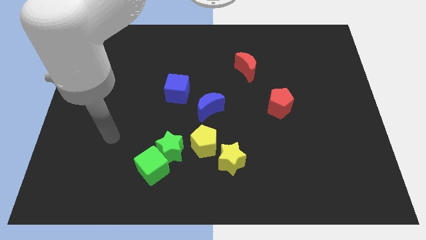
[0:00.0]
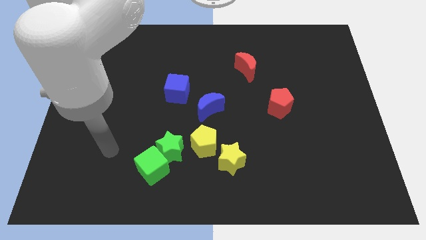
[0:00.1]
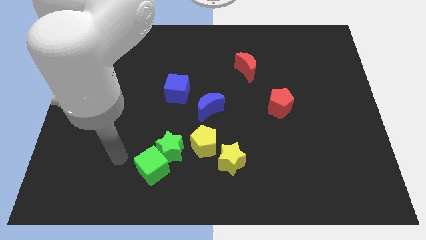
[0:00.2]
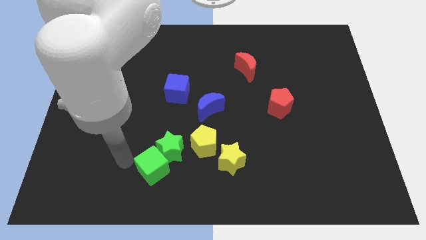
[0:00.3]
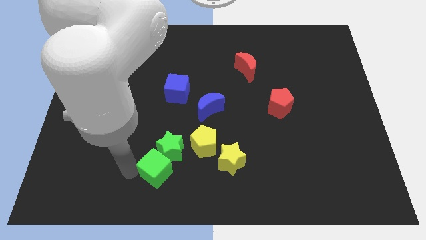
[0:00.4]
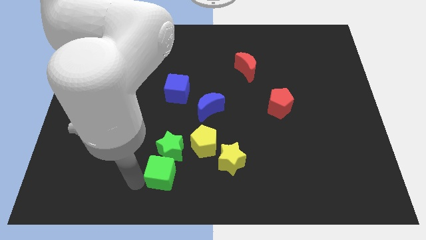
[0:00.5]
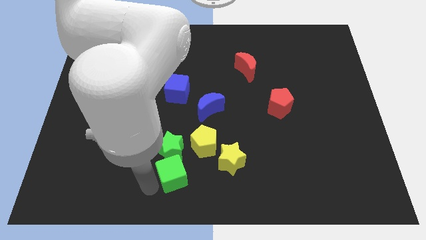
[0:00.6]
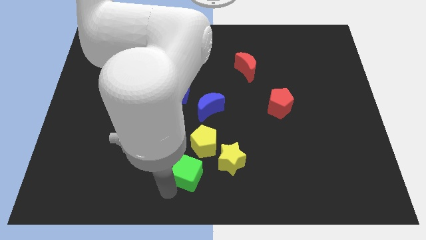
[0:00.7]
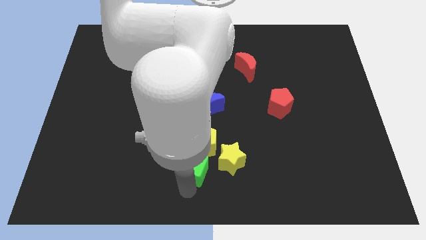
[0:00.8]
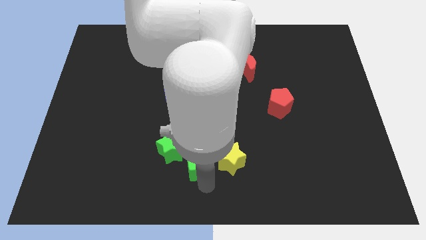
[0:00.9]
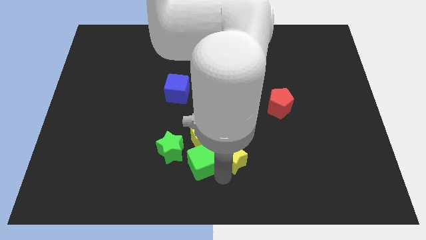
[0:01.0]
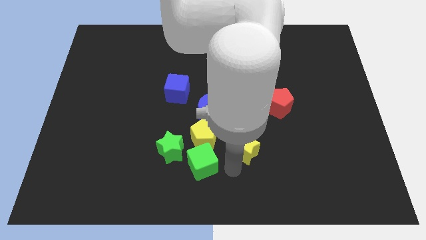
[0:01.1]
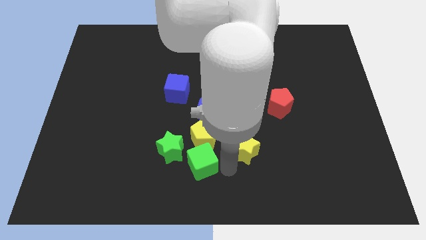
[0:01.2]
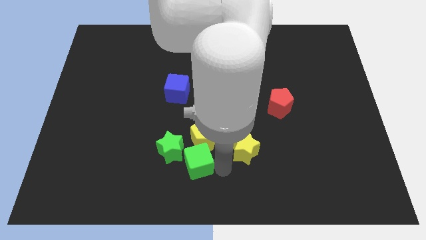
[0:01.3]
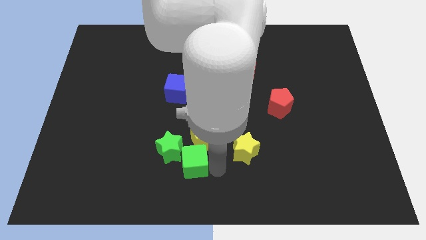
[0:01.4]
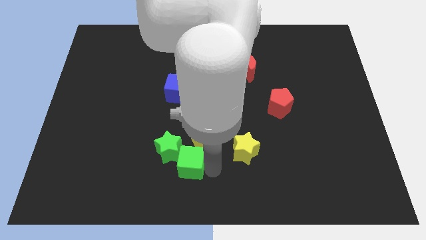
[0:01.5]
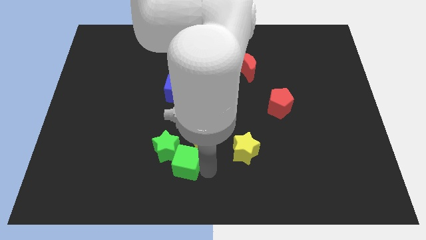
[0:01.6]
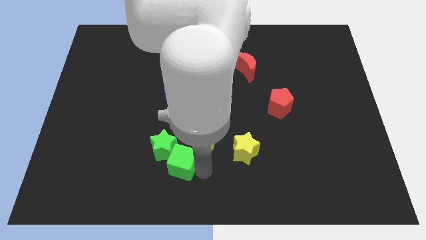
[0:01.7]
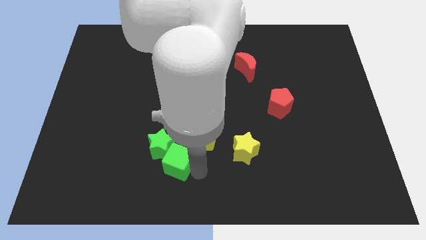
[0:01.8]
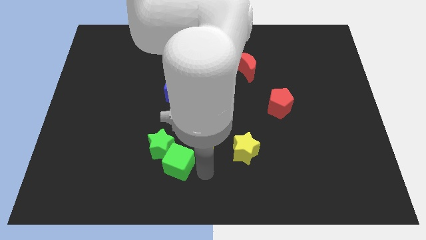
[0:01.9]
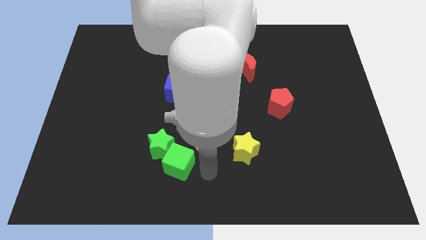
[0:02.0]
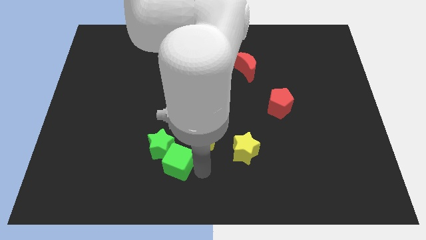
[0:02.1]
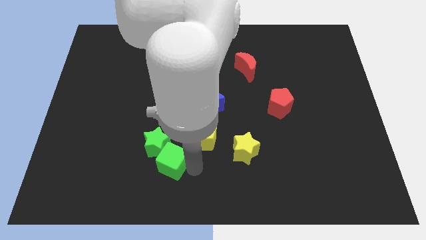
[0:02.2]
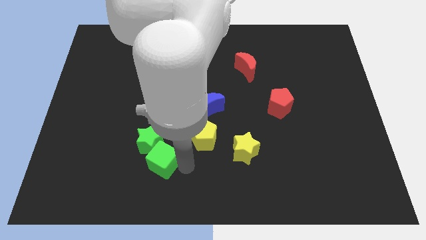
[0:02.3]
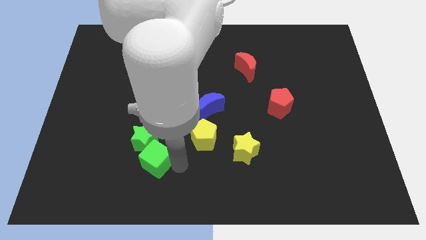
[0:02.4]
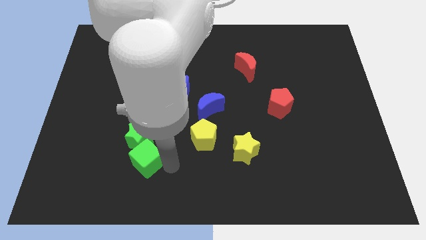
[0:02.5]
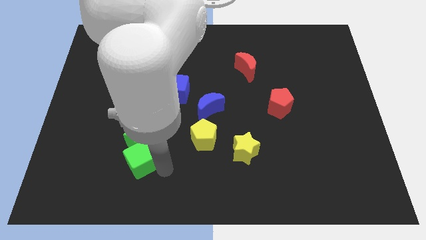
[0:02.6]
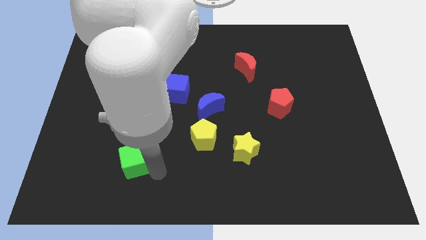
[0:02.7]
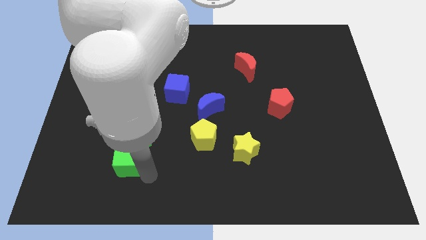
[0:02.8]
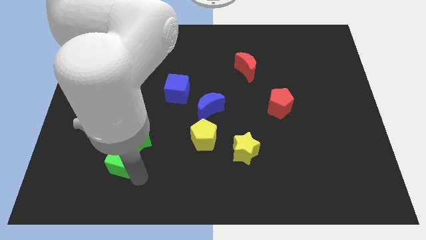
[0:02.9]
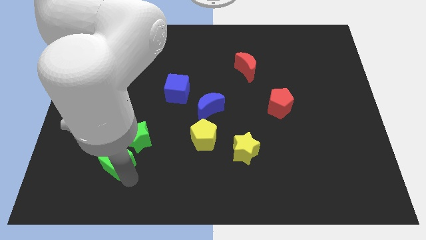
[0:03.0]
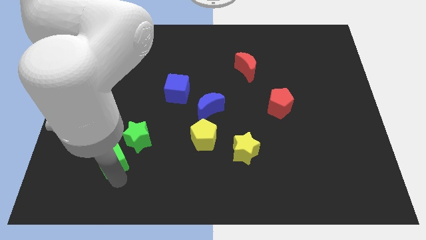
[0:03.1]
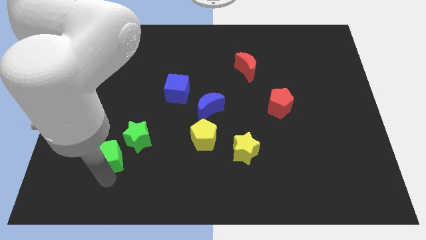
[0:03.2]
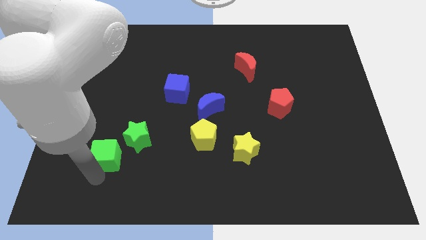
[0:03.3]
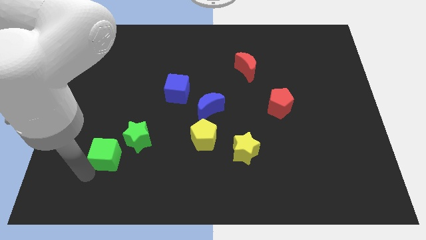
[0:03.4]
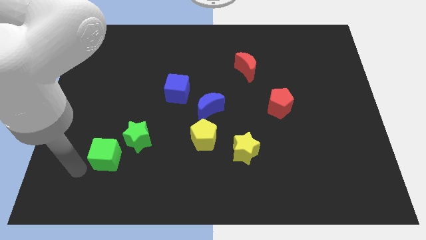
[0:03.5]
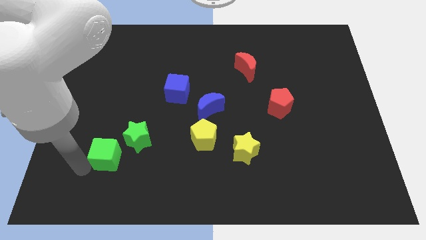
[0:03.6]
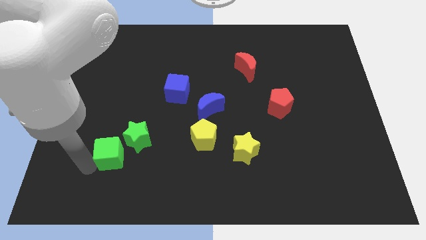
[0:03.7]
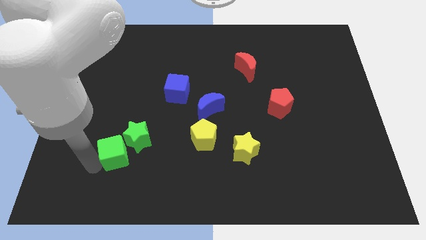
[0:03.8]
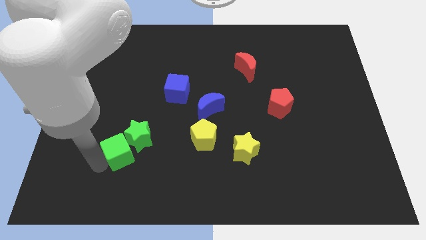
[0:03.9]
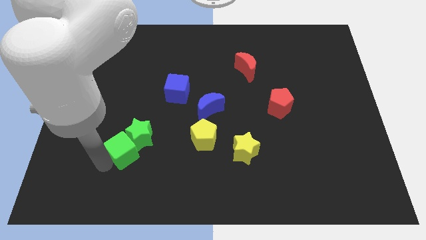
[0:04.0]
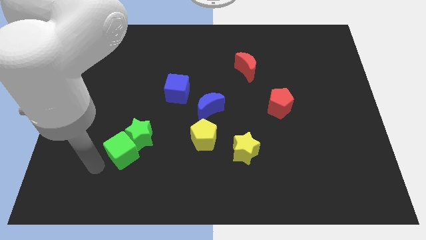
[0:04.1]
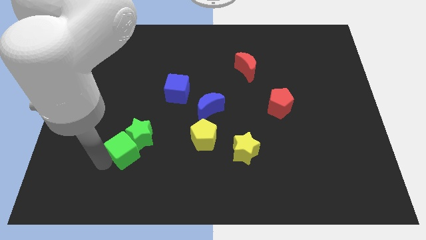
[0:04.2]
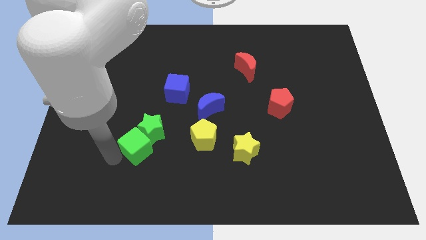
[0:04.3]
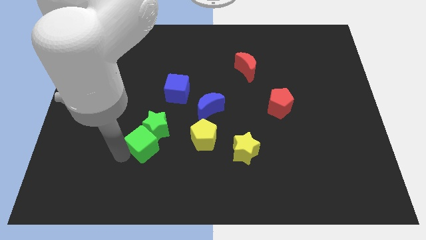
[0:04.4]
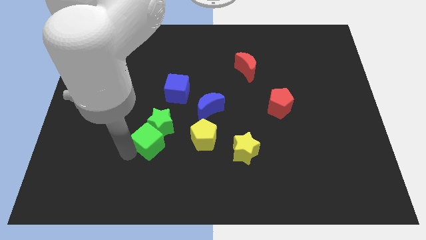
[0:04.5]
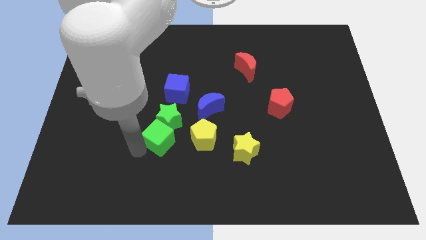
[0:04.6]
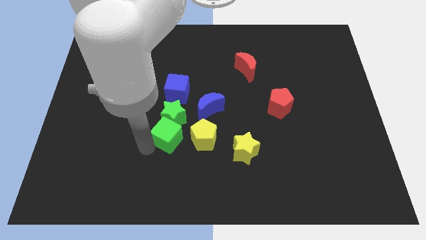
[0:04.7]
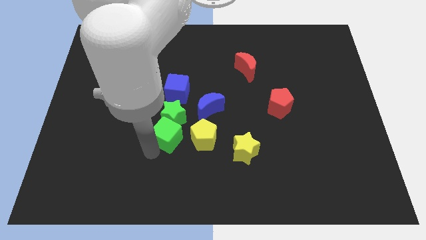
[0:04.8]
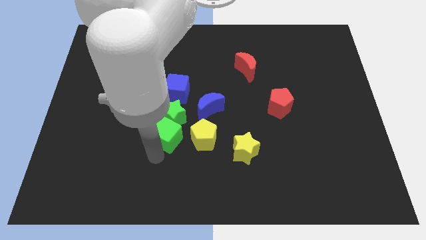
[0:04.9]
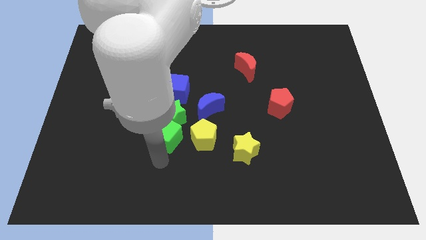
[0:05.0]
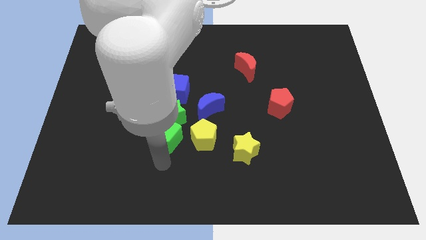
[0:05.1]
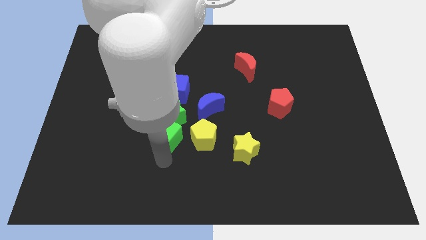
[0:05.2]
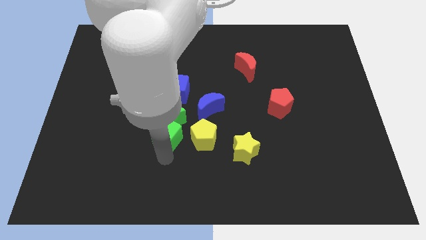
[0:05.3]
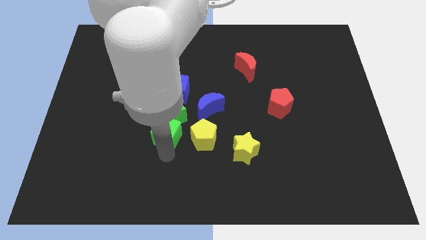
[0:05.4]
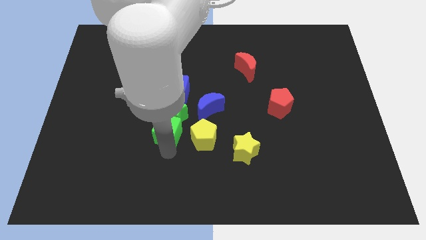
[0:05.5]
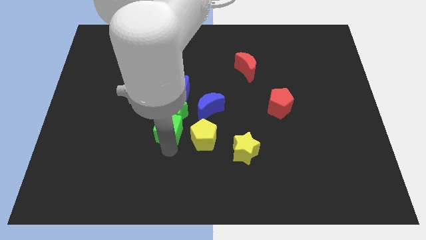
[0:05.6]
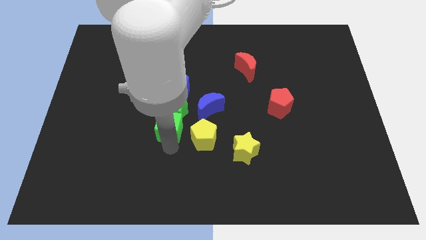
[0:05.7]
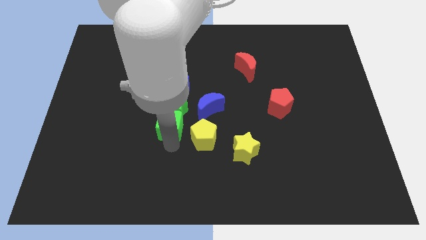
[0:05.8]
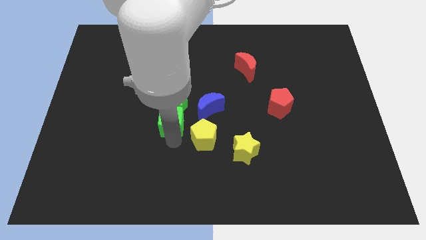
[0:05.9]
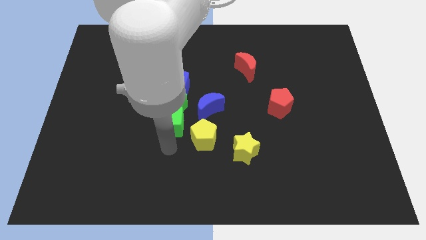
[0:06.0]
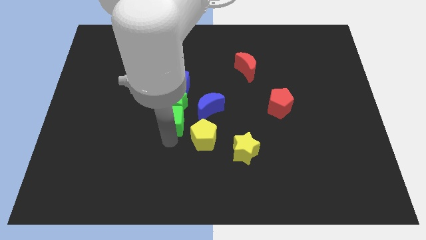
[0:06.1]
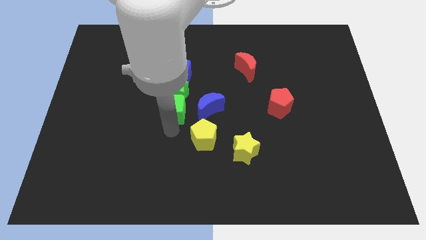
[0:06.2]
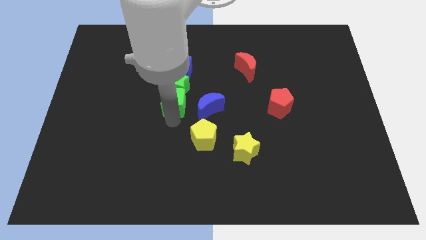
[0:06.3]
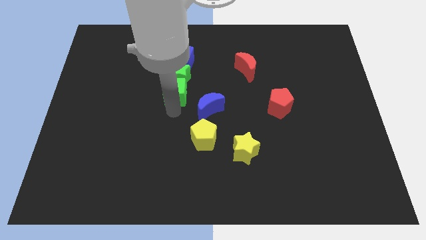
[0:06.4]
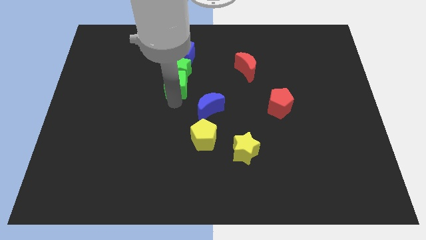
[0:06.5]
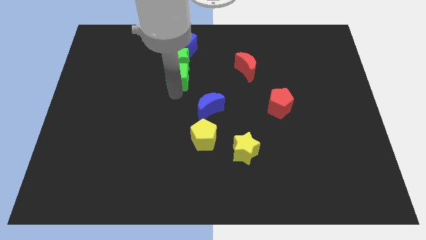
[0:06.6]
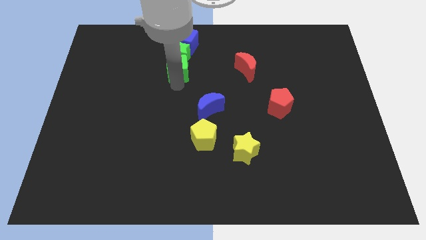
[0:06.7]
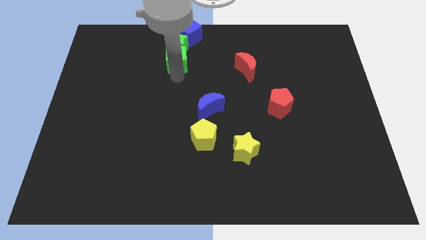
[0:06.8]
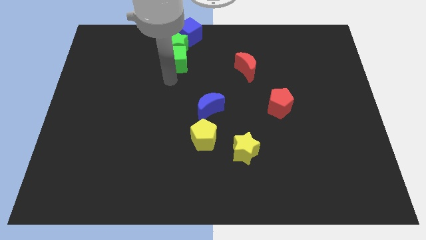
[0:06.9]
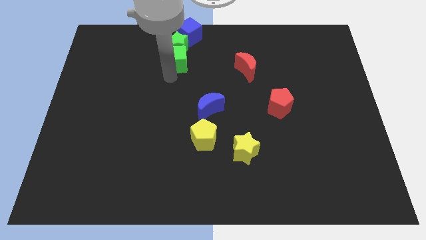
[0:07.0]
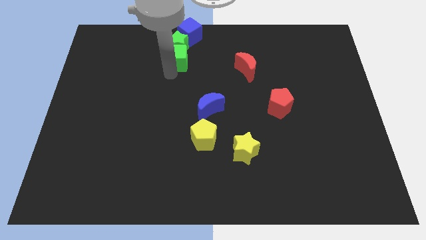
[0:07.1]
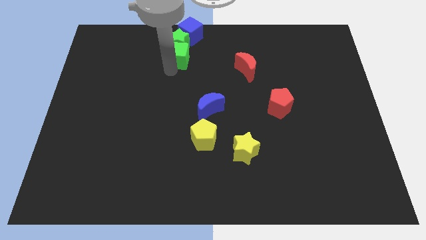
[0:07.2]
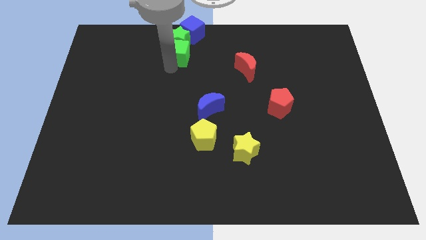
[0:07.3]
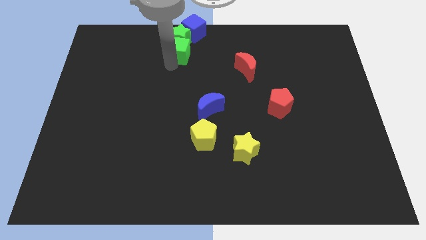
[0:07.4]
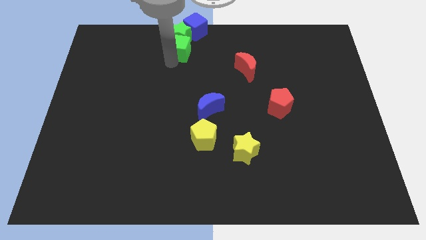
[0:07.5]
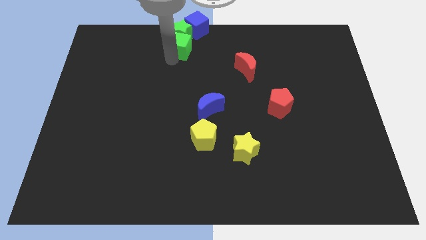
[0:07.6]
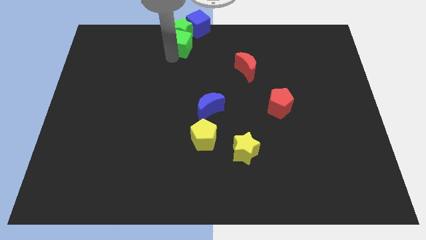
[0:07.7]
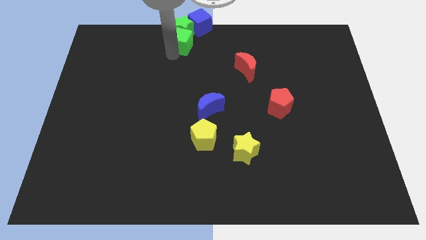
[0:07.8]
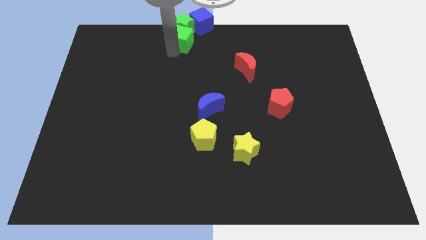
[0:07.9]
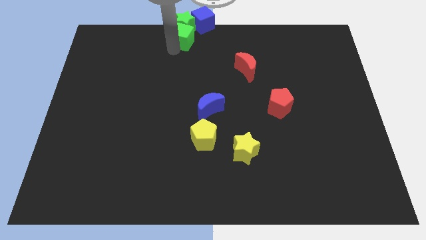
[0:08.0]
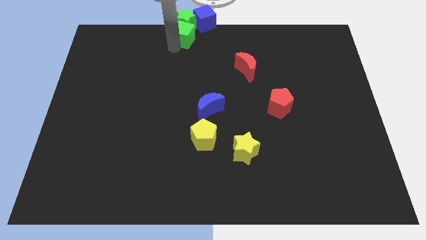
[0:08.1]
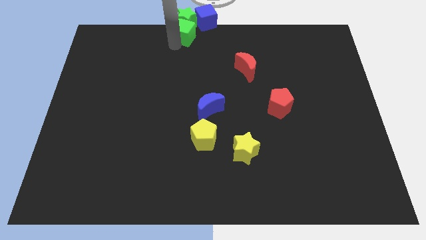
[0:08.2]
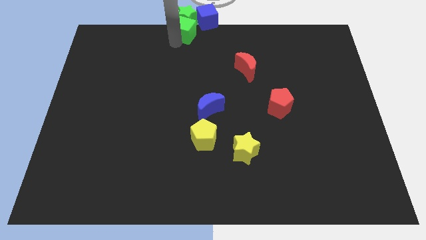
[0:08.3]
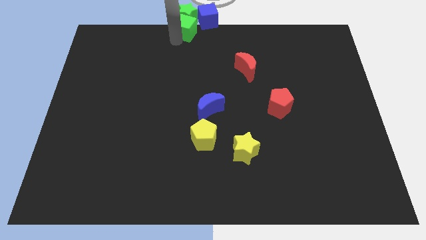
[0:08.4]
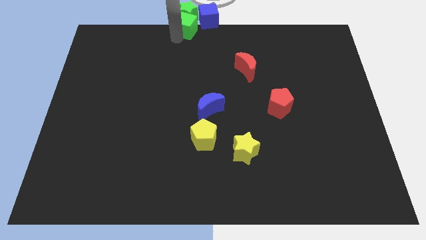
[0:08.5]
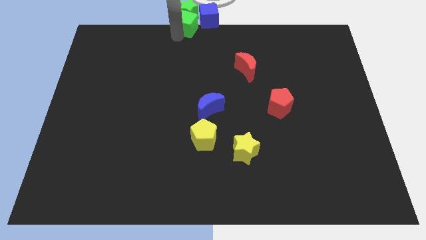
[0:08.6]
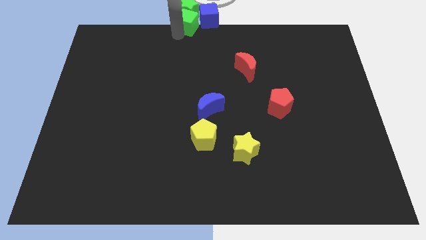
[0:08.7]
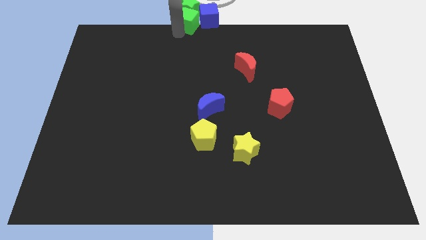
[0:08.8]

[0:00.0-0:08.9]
push the green cube close to the blue cube
